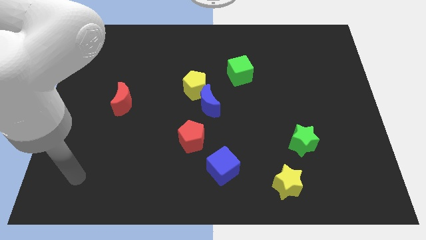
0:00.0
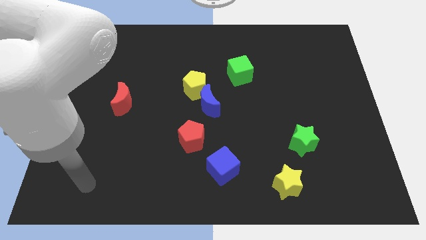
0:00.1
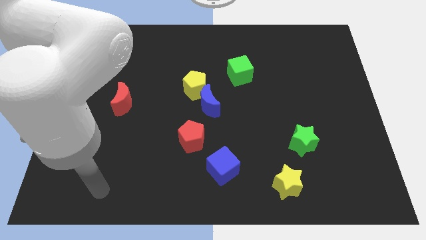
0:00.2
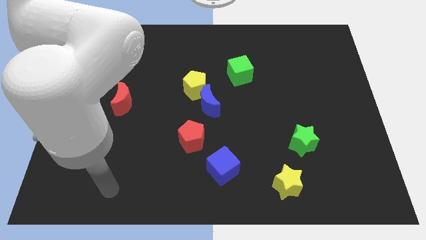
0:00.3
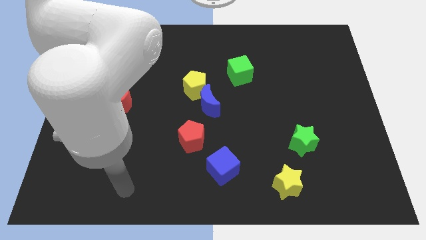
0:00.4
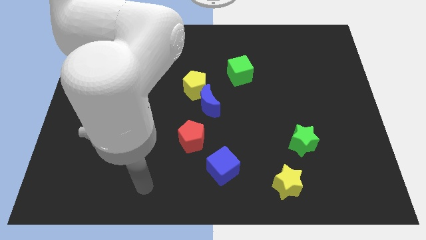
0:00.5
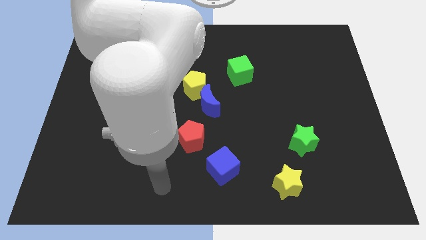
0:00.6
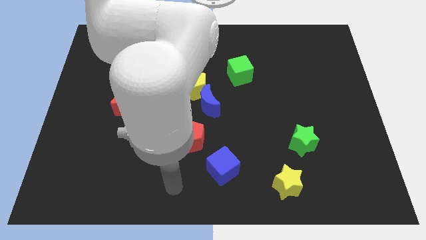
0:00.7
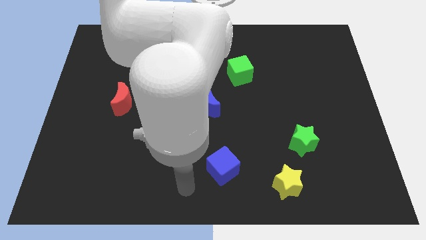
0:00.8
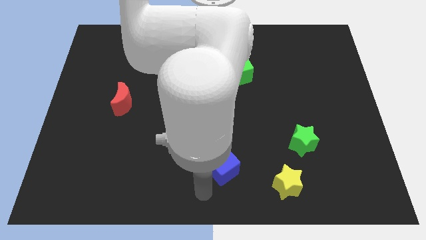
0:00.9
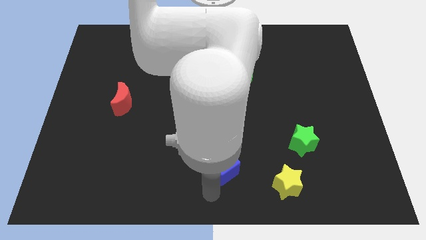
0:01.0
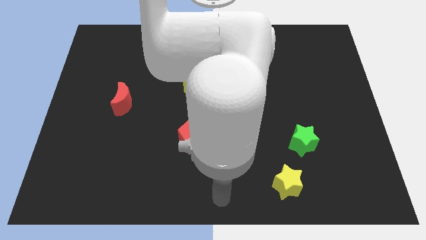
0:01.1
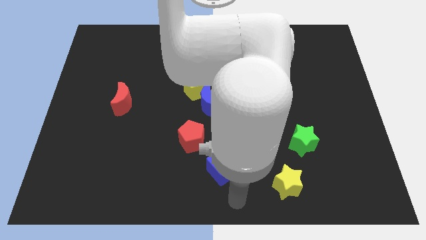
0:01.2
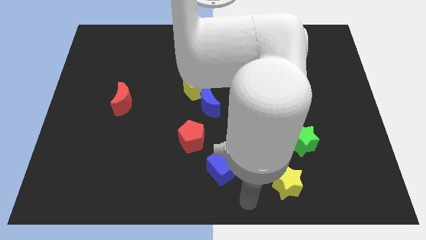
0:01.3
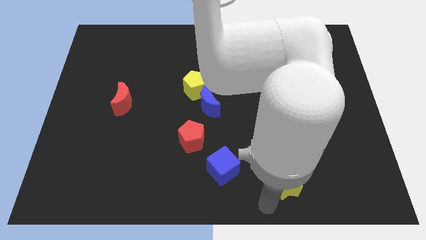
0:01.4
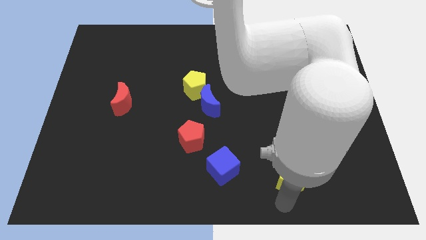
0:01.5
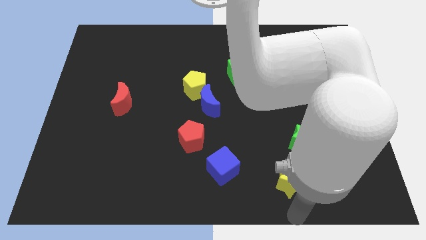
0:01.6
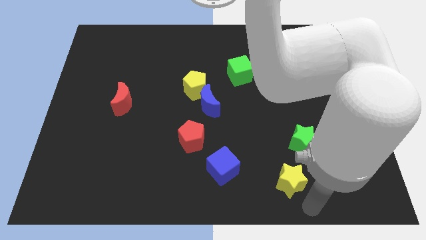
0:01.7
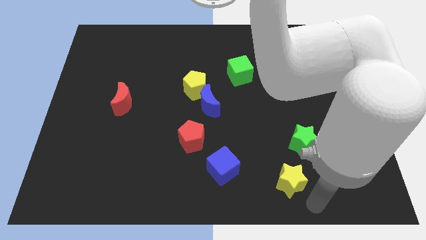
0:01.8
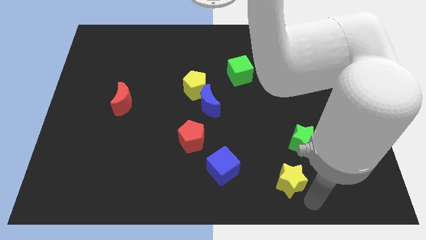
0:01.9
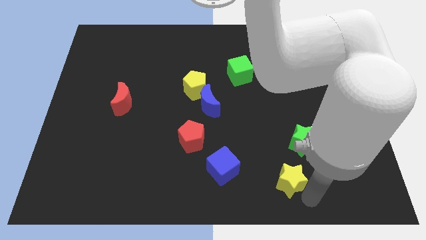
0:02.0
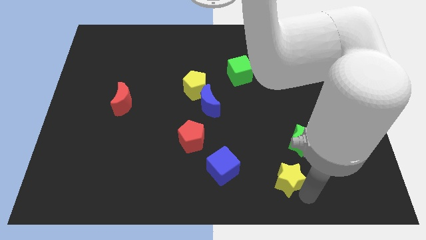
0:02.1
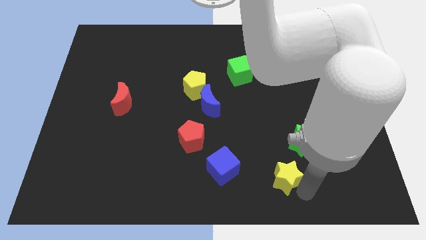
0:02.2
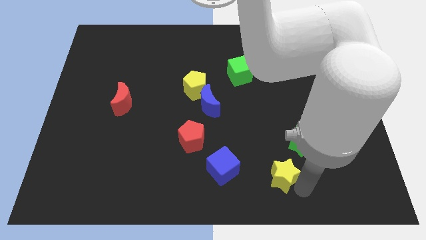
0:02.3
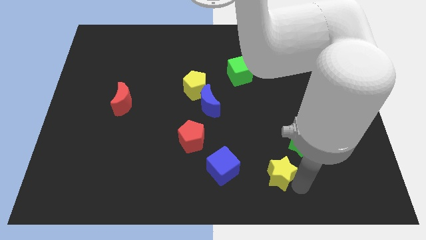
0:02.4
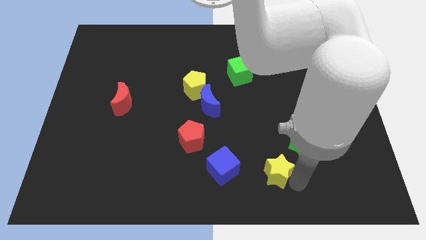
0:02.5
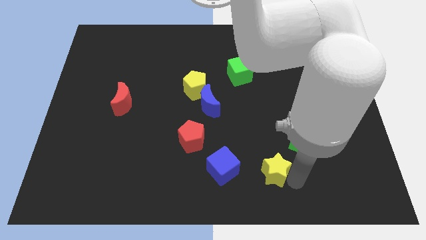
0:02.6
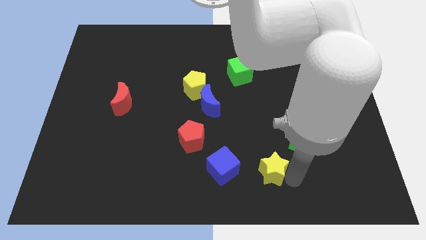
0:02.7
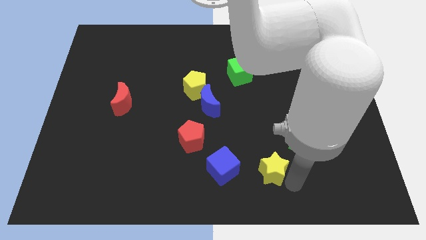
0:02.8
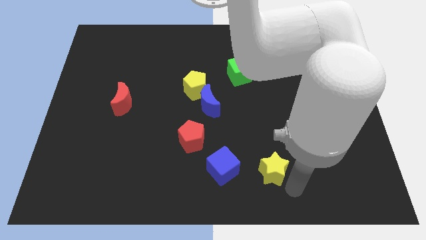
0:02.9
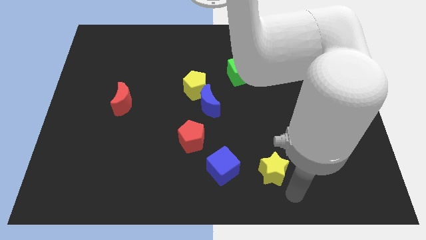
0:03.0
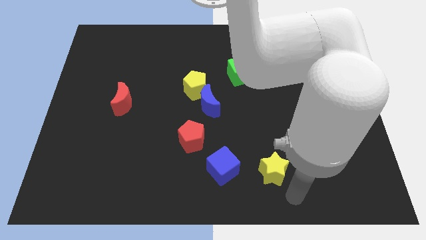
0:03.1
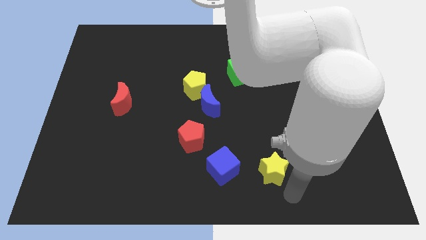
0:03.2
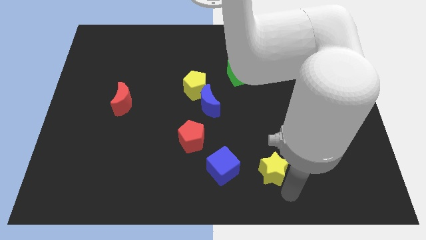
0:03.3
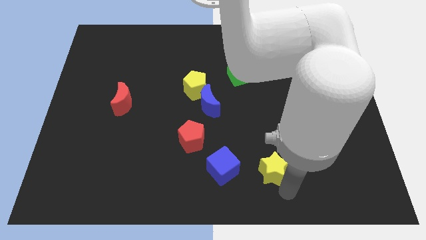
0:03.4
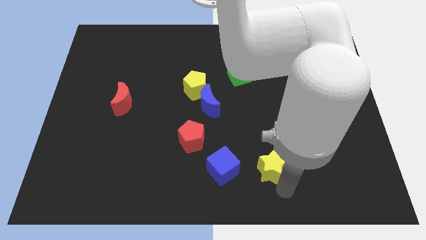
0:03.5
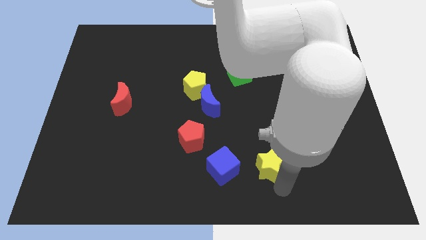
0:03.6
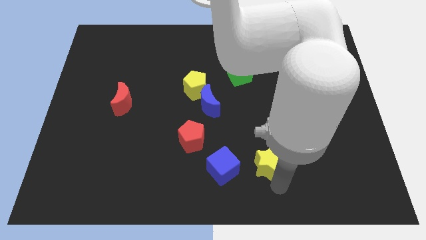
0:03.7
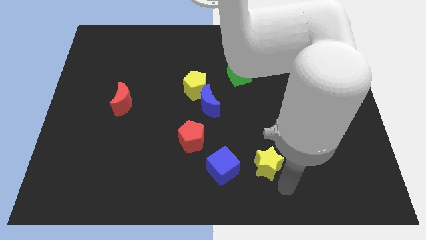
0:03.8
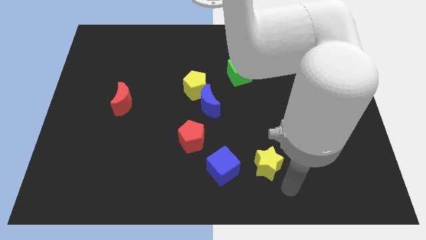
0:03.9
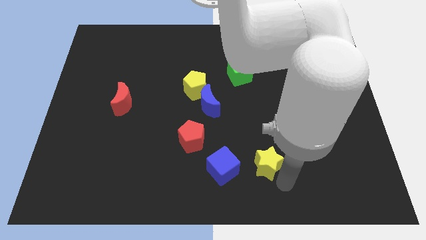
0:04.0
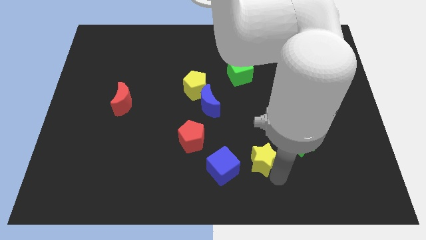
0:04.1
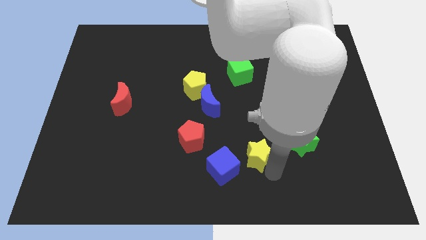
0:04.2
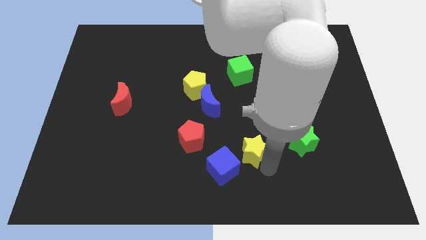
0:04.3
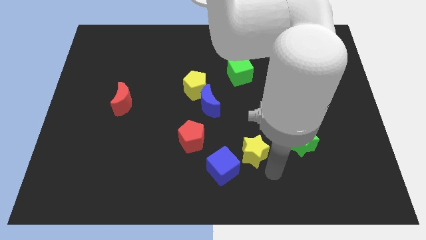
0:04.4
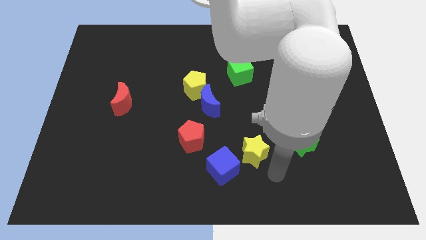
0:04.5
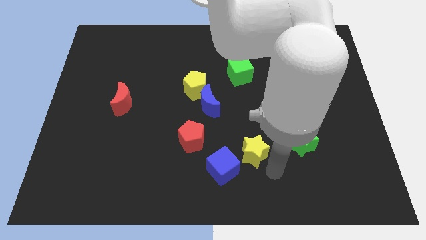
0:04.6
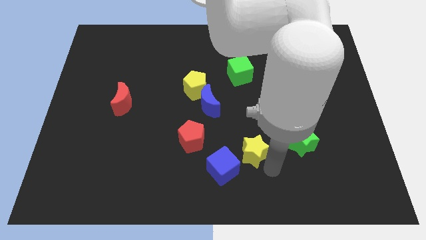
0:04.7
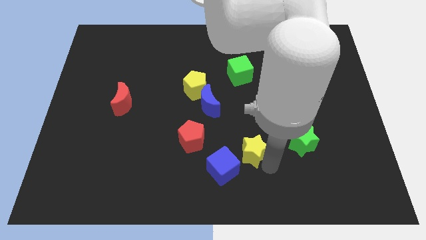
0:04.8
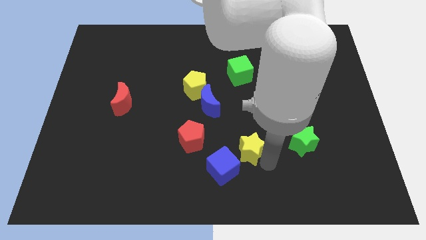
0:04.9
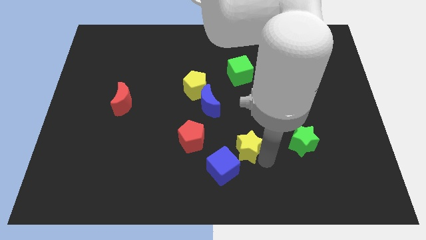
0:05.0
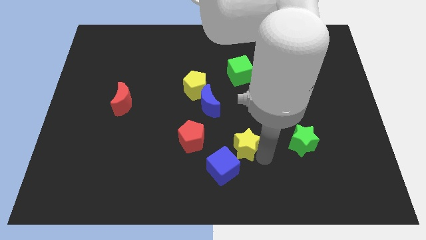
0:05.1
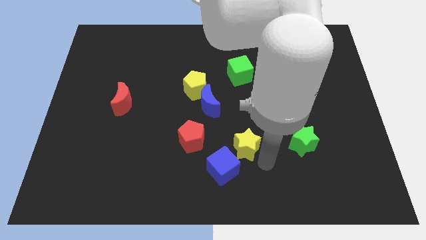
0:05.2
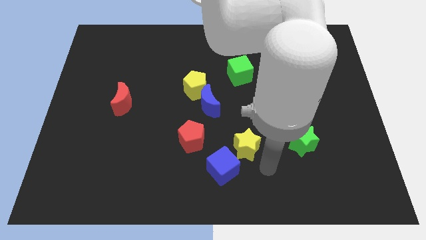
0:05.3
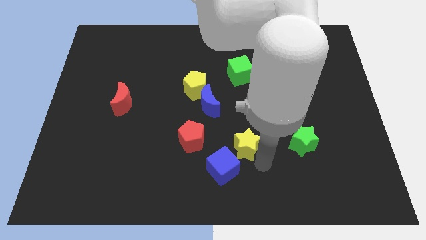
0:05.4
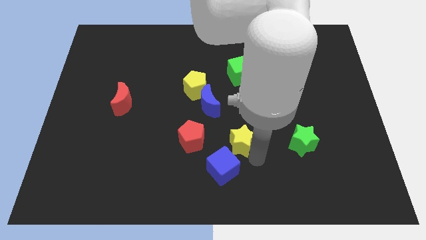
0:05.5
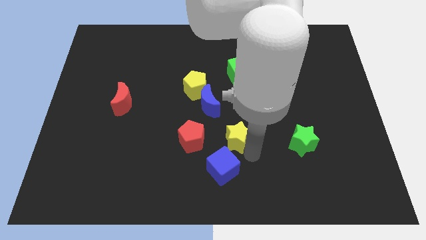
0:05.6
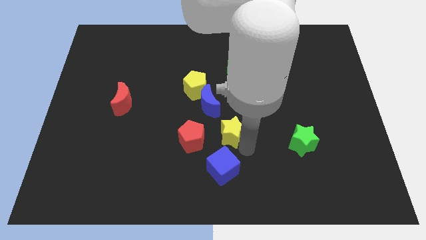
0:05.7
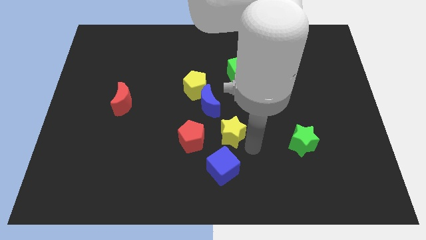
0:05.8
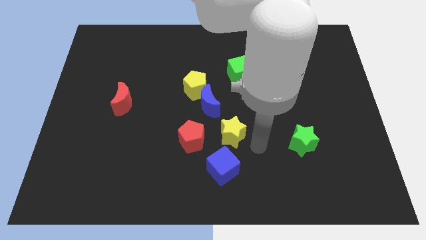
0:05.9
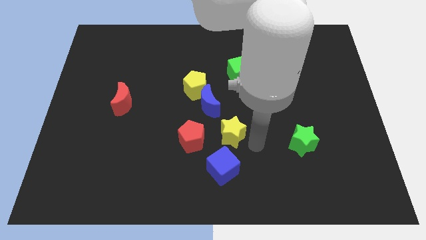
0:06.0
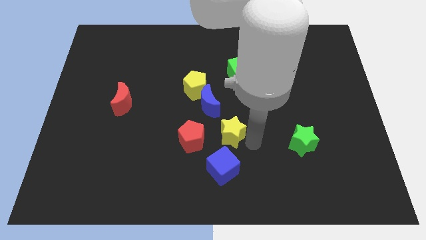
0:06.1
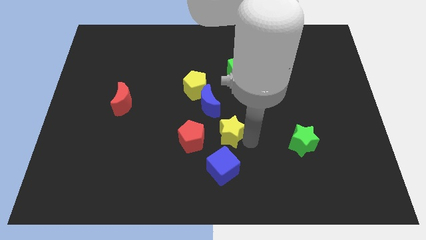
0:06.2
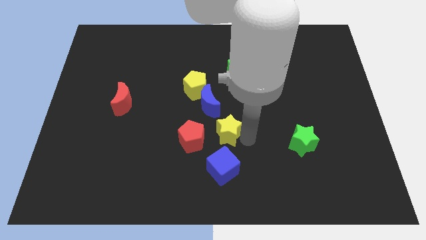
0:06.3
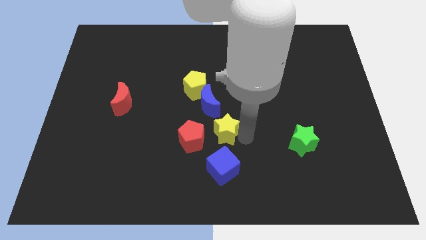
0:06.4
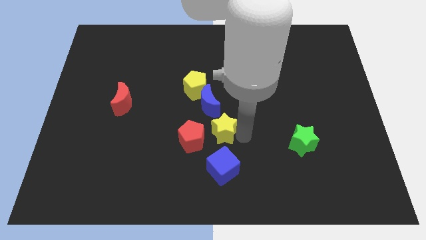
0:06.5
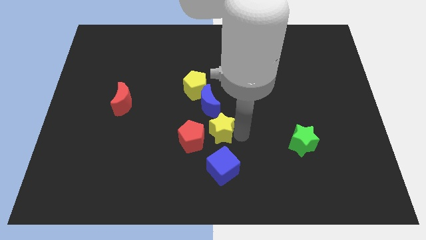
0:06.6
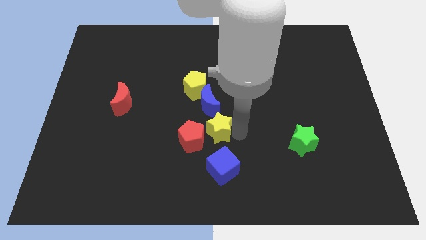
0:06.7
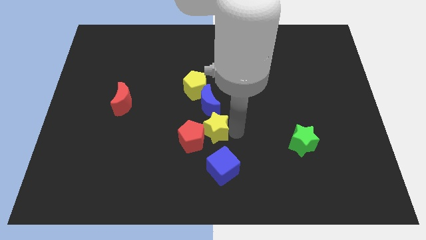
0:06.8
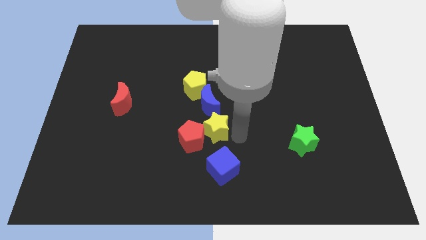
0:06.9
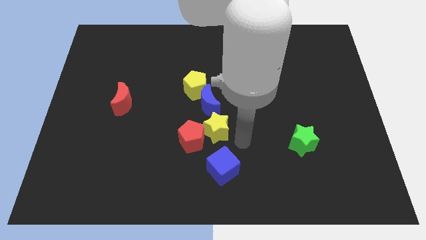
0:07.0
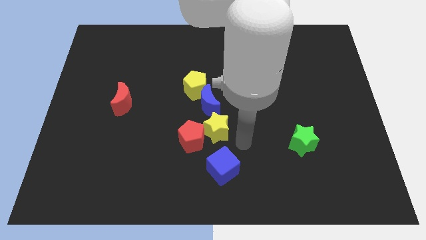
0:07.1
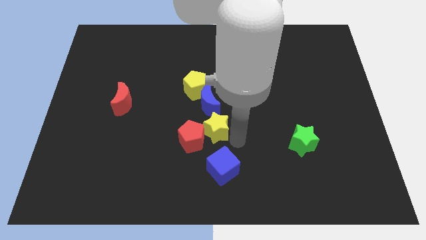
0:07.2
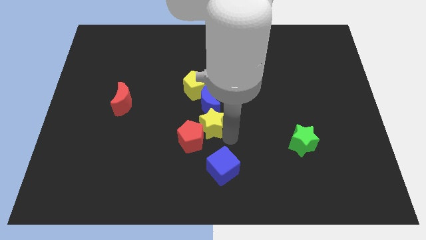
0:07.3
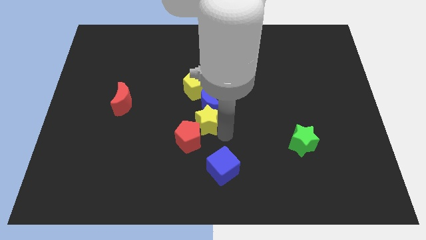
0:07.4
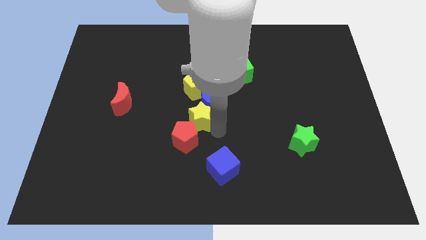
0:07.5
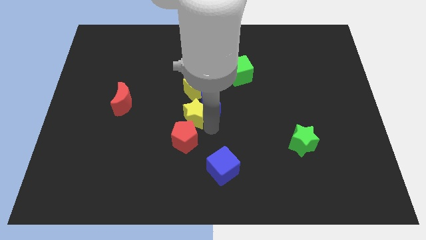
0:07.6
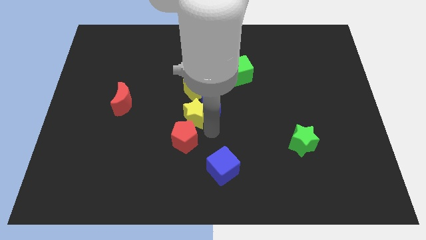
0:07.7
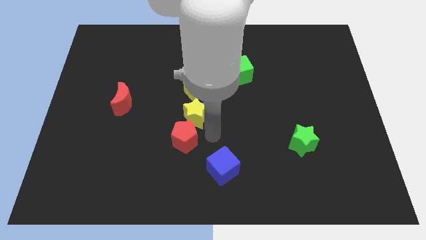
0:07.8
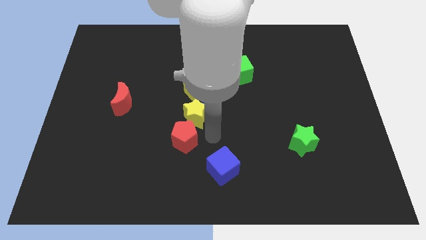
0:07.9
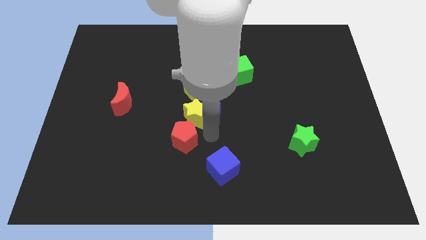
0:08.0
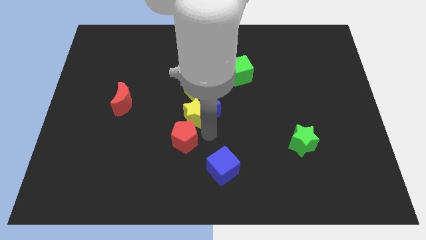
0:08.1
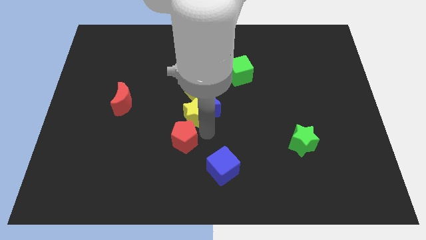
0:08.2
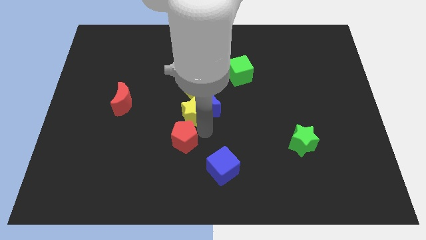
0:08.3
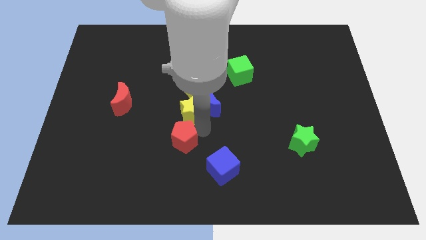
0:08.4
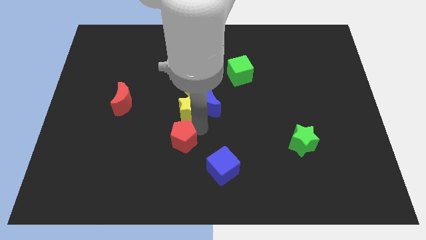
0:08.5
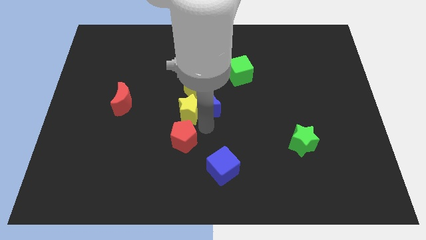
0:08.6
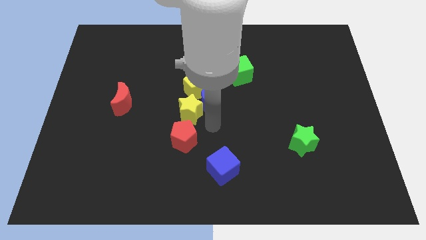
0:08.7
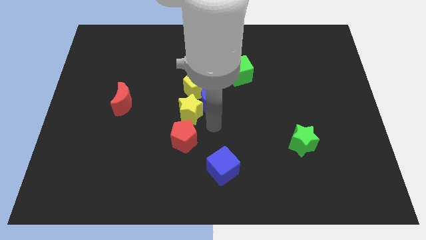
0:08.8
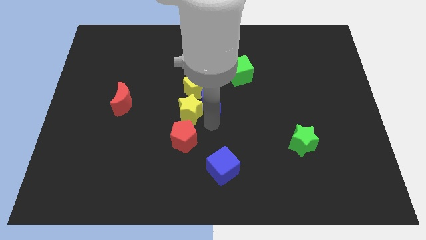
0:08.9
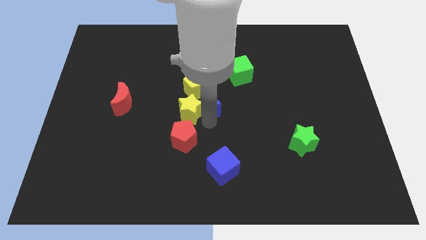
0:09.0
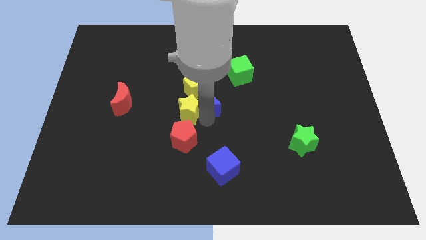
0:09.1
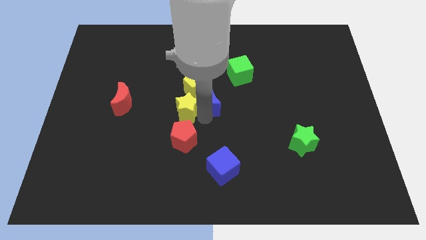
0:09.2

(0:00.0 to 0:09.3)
put the yellow star to the right of the red moon
